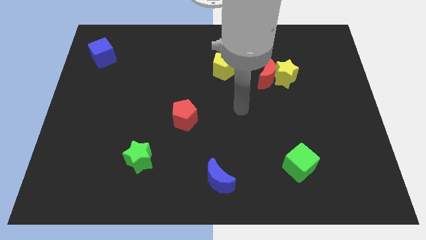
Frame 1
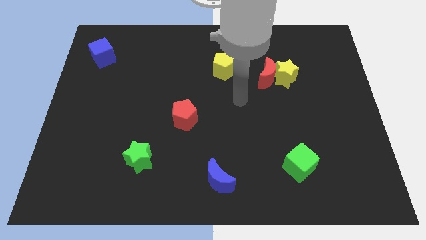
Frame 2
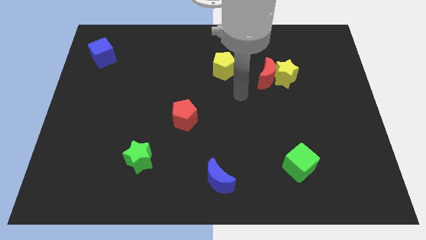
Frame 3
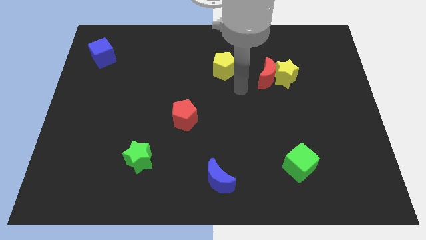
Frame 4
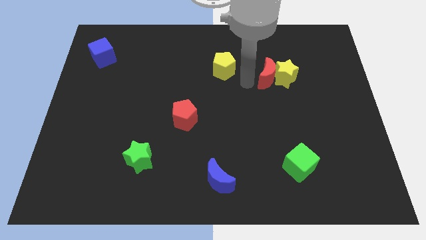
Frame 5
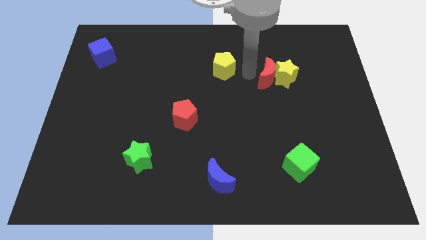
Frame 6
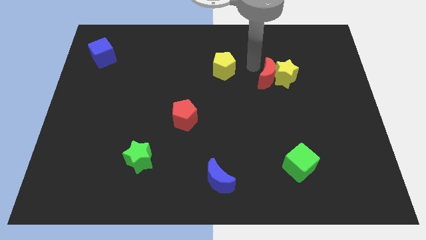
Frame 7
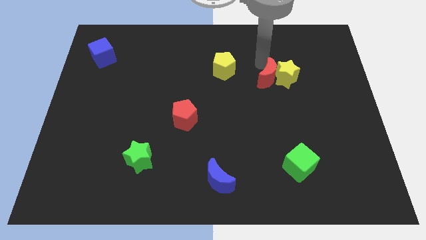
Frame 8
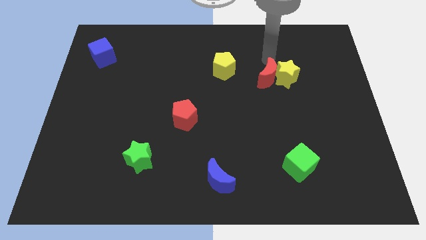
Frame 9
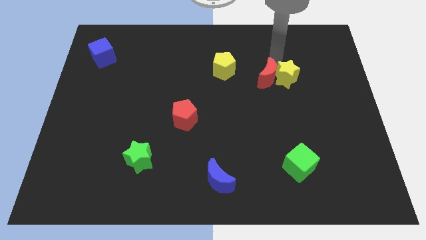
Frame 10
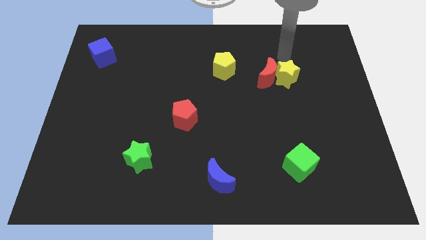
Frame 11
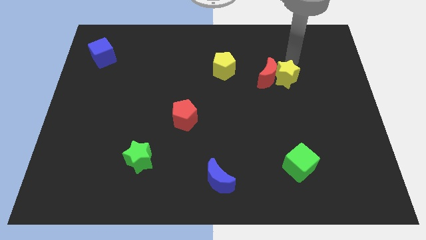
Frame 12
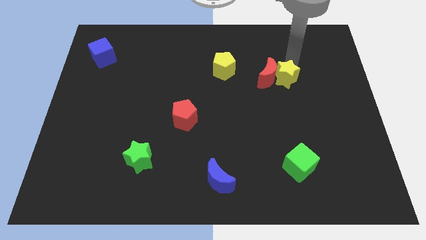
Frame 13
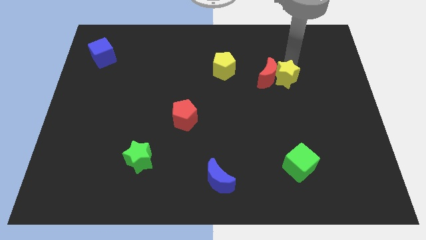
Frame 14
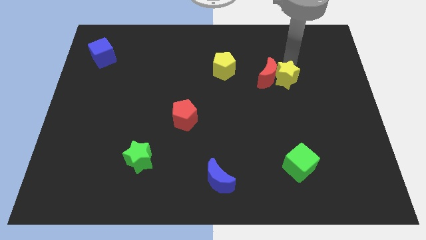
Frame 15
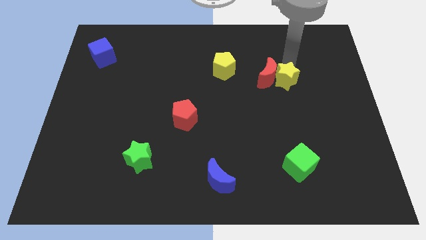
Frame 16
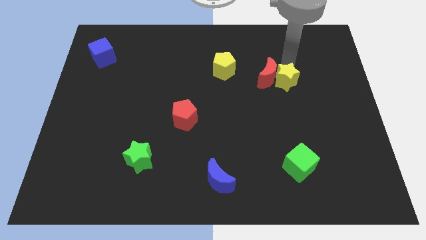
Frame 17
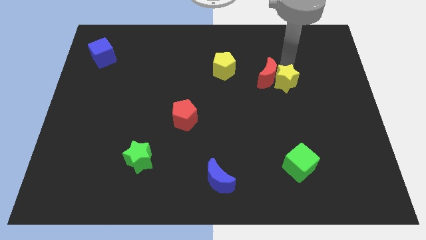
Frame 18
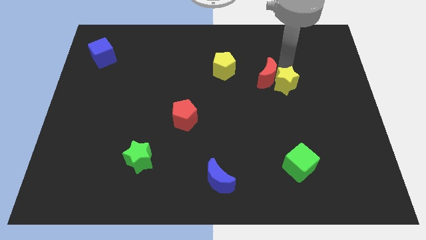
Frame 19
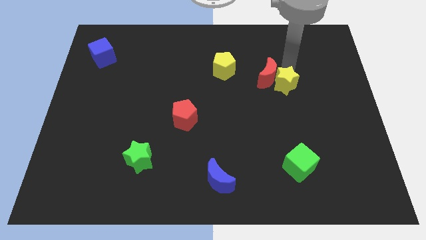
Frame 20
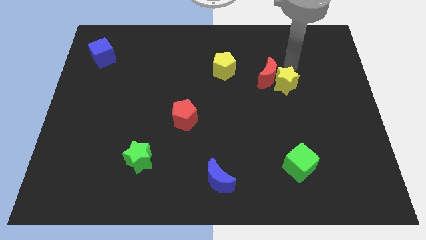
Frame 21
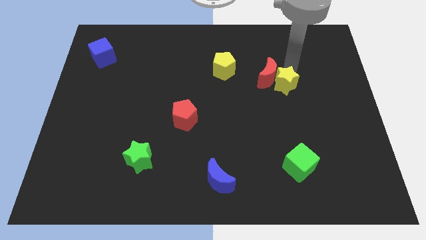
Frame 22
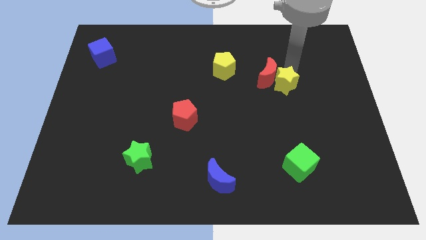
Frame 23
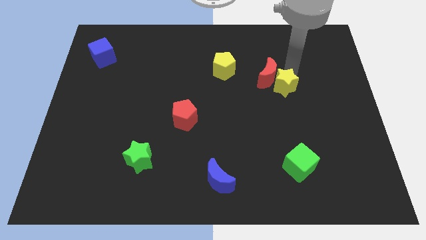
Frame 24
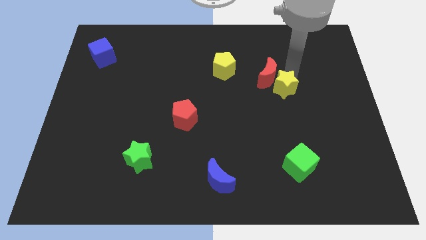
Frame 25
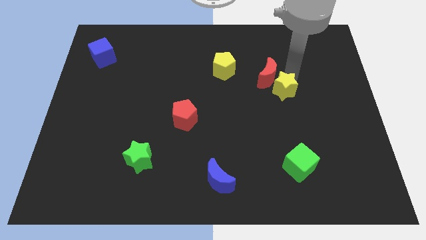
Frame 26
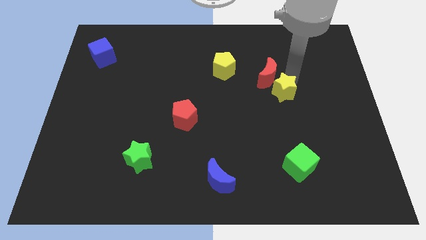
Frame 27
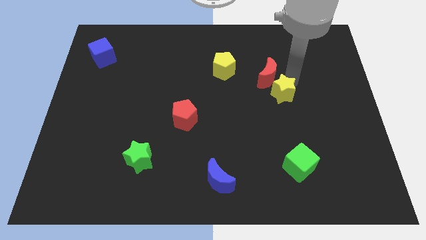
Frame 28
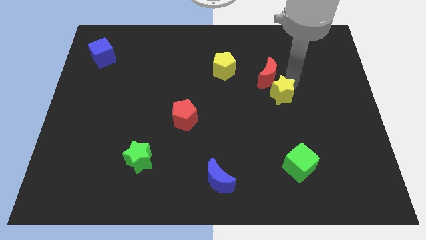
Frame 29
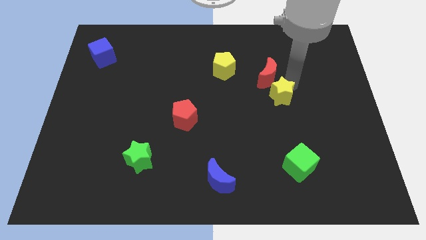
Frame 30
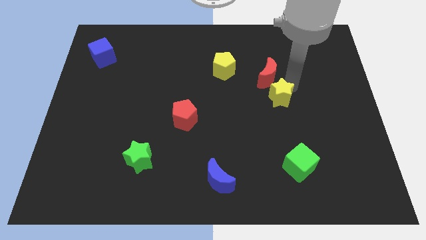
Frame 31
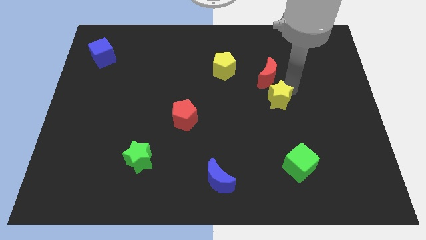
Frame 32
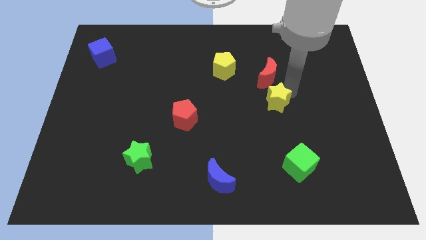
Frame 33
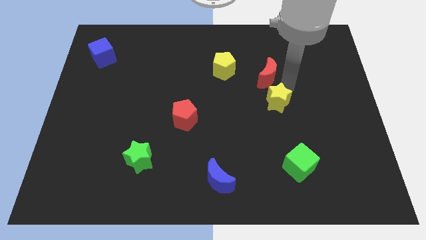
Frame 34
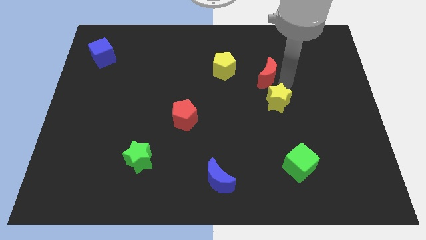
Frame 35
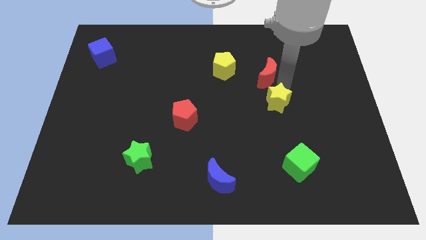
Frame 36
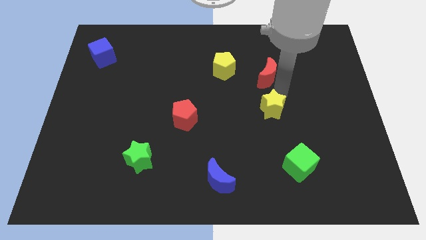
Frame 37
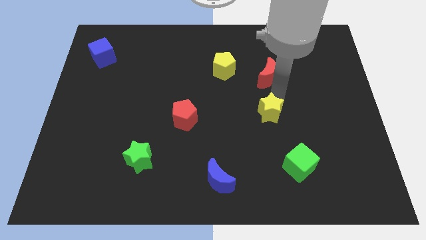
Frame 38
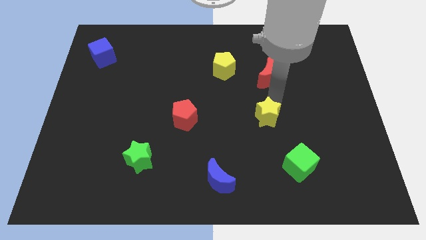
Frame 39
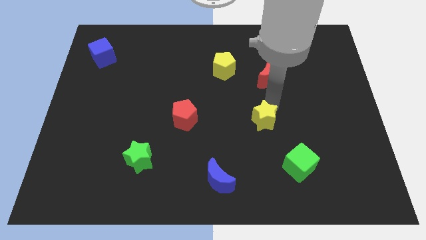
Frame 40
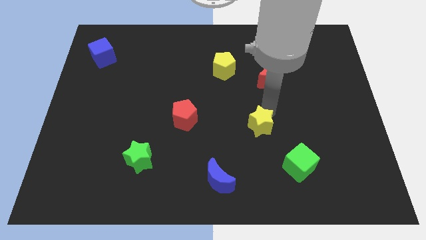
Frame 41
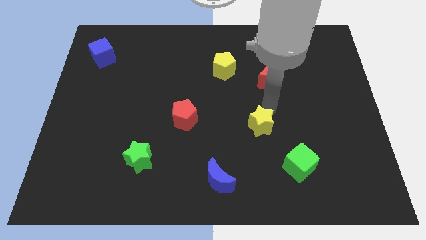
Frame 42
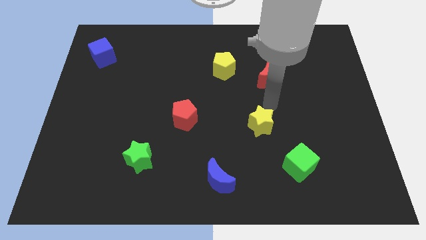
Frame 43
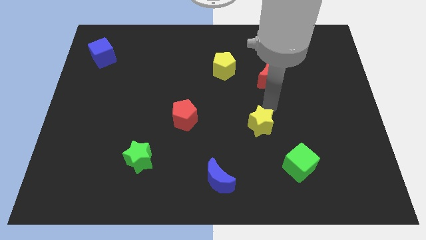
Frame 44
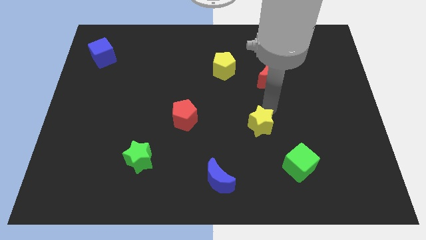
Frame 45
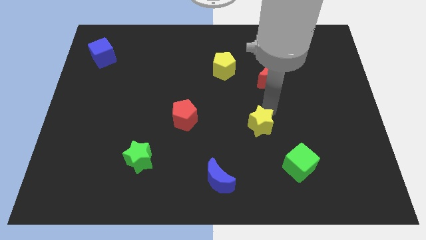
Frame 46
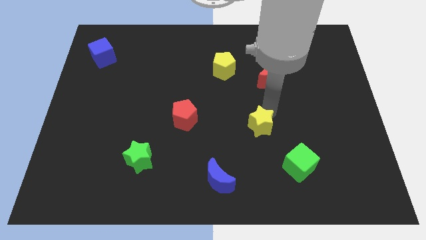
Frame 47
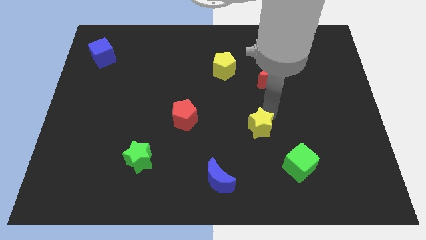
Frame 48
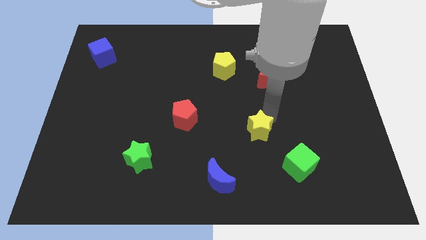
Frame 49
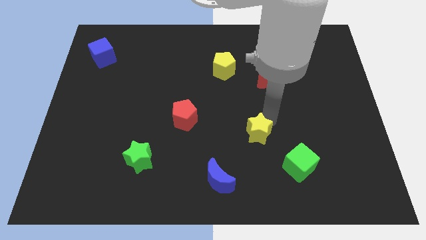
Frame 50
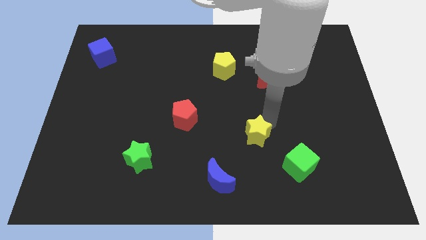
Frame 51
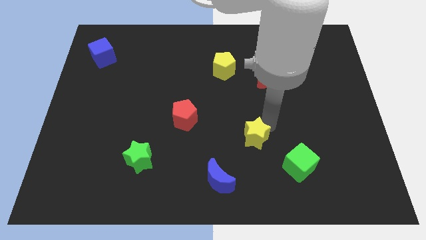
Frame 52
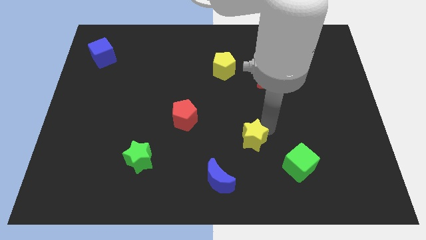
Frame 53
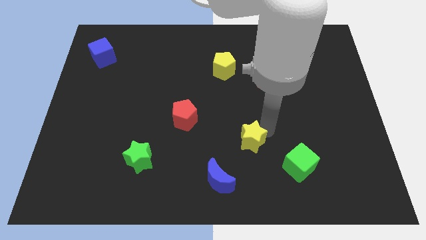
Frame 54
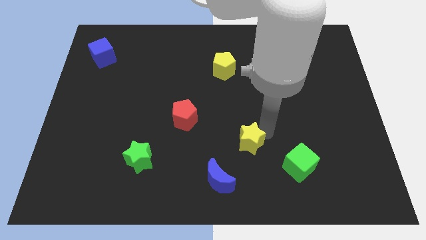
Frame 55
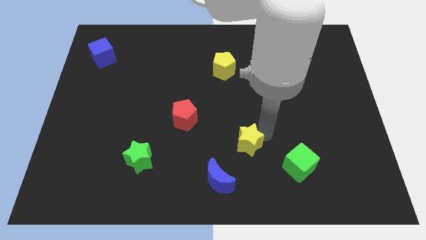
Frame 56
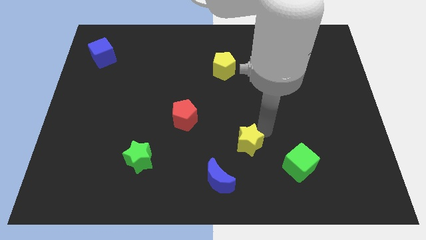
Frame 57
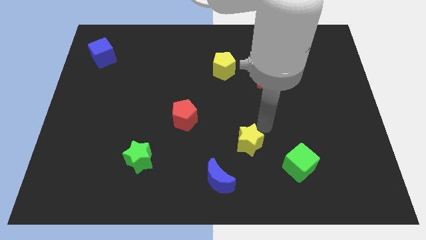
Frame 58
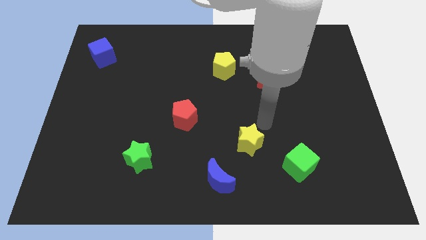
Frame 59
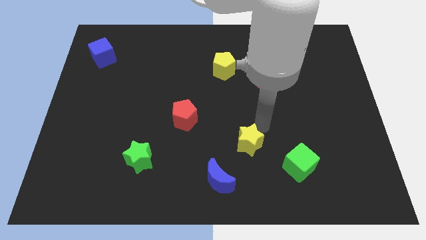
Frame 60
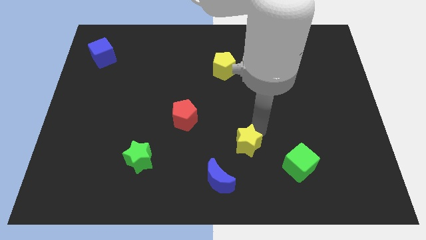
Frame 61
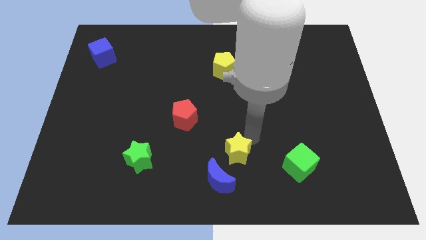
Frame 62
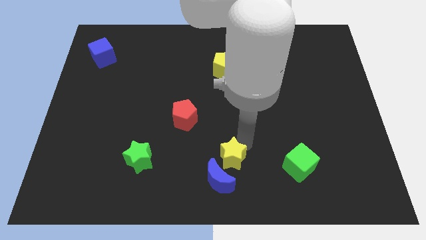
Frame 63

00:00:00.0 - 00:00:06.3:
slide the yellow star towards the blue moon

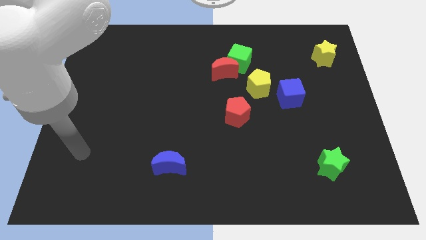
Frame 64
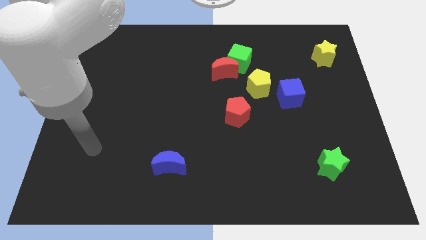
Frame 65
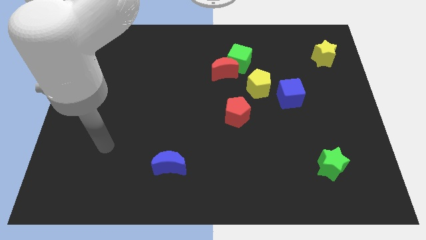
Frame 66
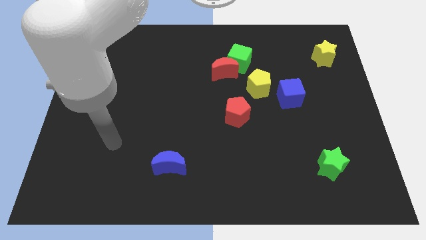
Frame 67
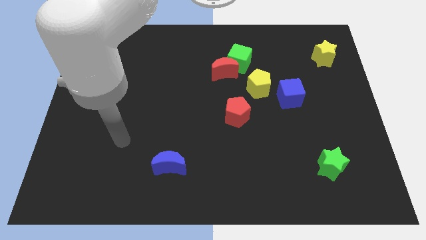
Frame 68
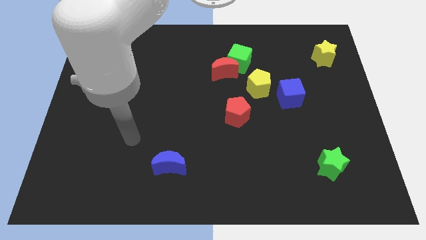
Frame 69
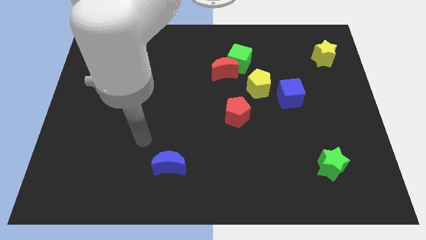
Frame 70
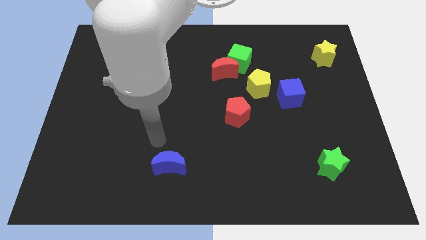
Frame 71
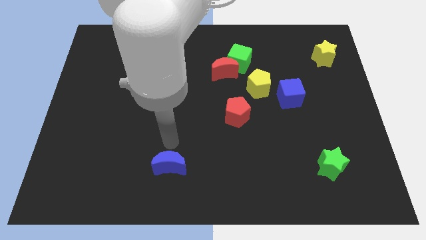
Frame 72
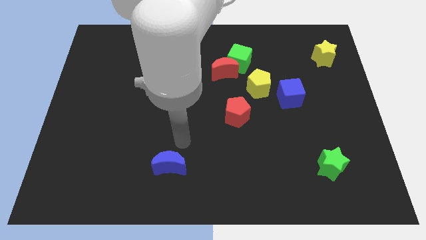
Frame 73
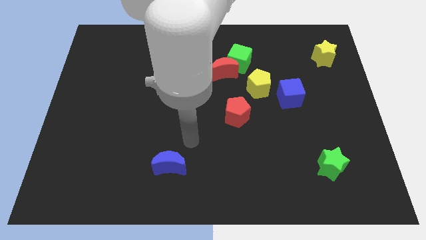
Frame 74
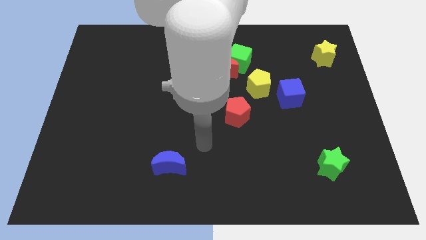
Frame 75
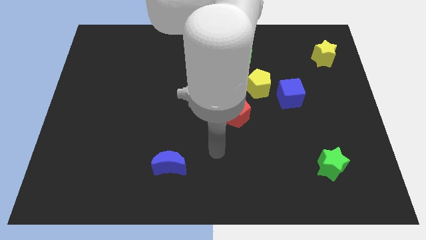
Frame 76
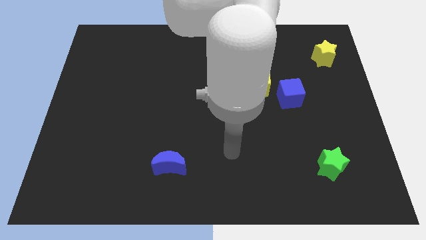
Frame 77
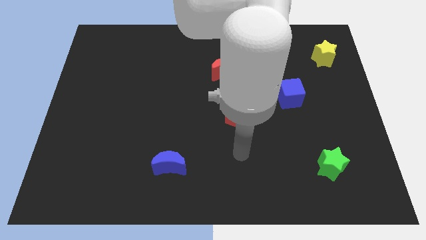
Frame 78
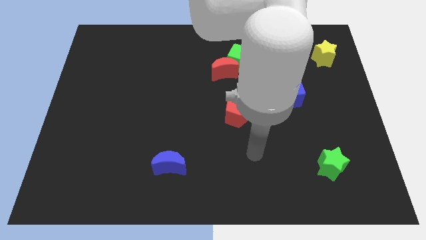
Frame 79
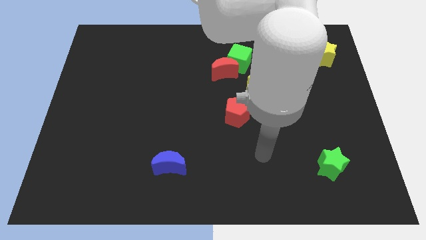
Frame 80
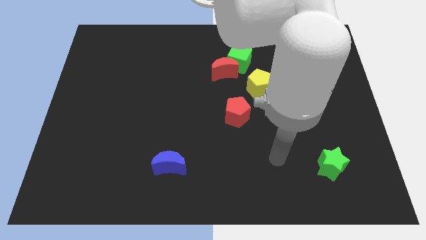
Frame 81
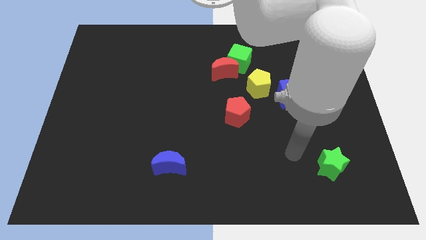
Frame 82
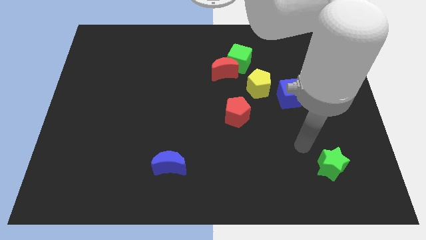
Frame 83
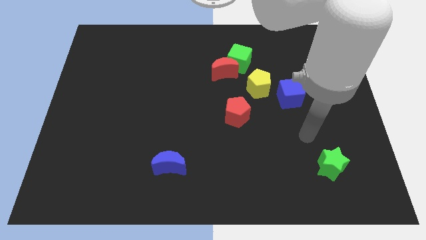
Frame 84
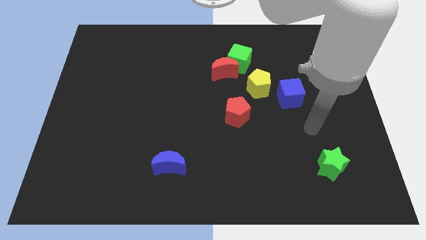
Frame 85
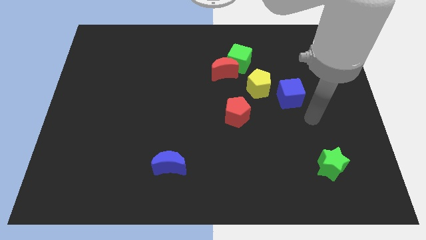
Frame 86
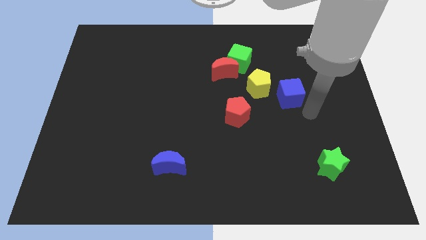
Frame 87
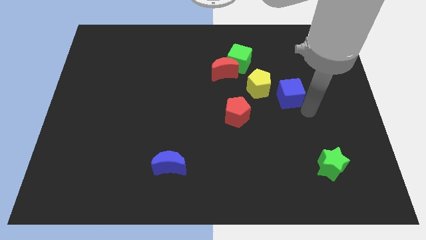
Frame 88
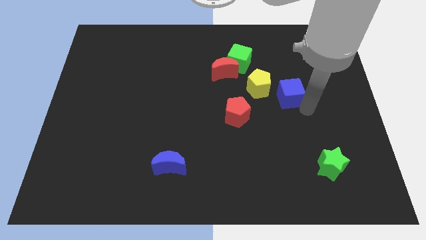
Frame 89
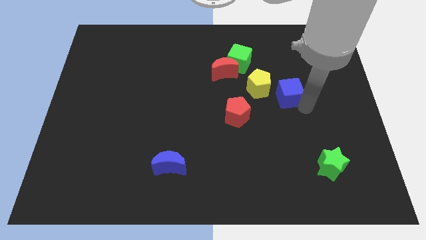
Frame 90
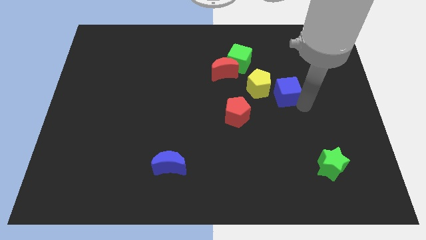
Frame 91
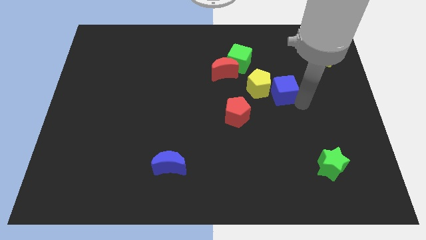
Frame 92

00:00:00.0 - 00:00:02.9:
push the blue cube close to the yellow pentagon
